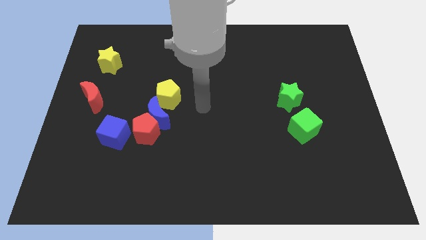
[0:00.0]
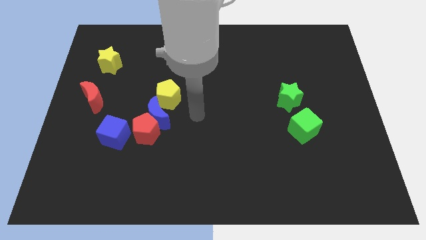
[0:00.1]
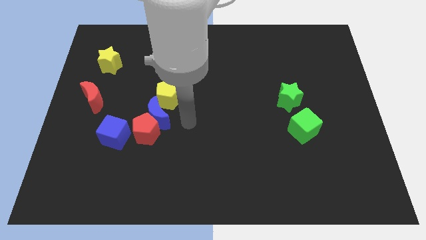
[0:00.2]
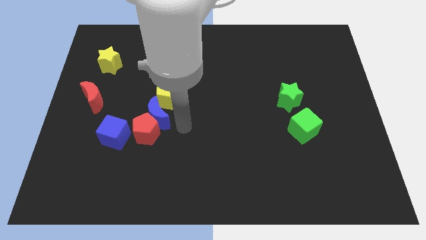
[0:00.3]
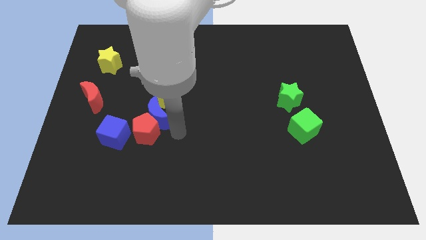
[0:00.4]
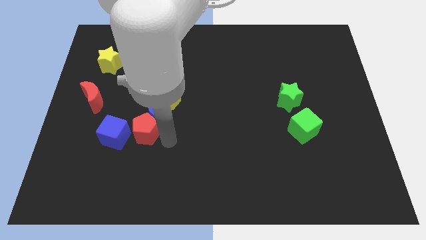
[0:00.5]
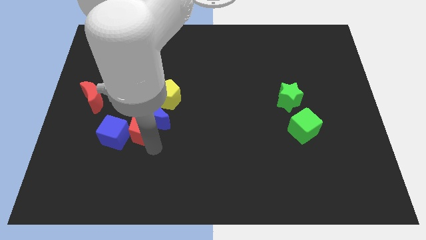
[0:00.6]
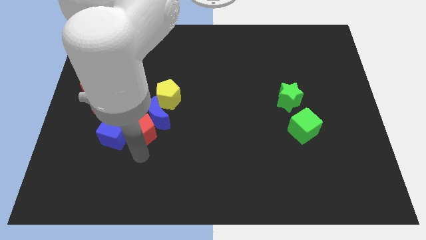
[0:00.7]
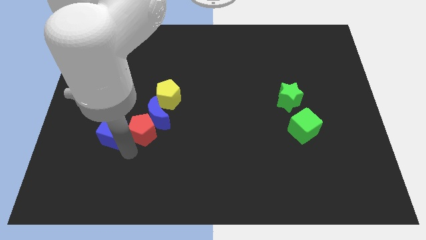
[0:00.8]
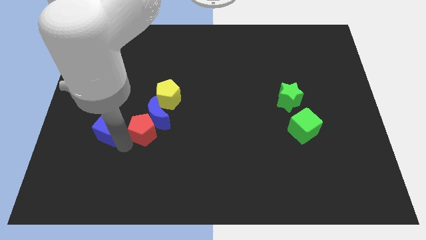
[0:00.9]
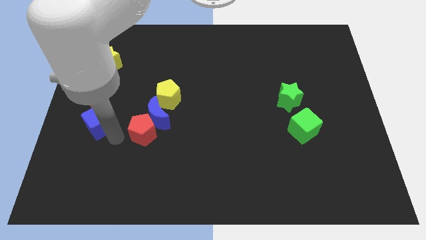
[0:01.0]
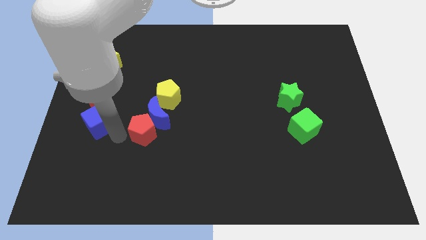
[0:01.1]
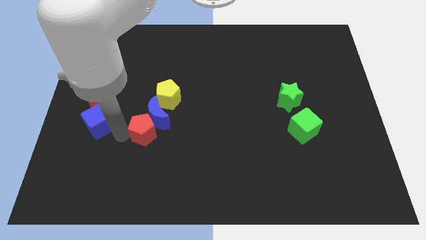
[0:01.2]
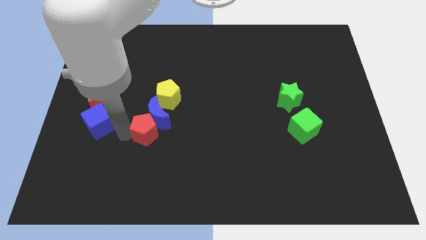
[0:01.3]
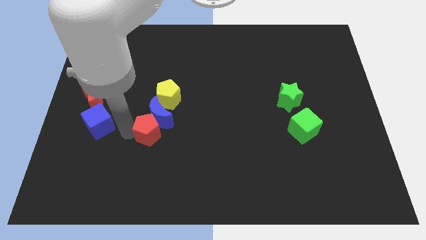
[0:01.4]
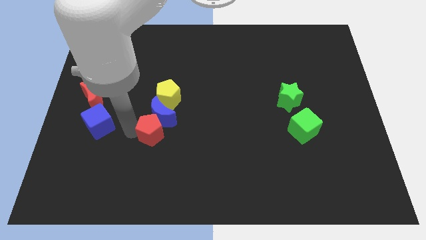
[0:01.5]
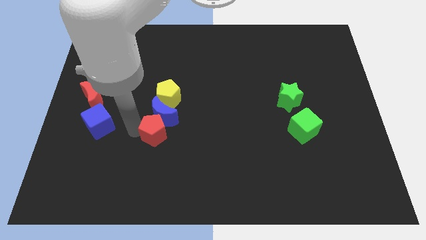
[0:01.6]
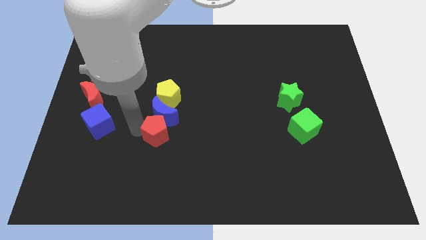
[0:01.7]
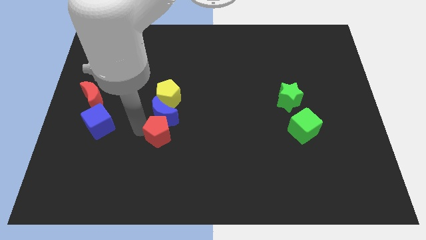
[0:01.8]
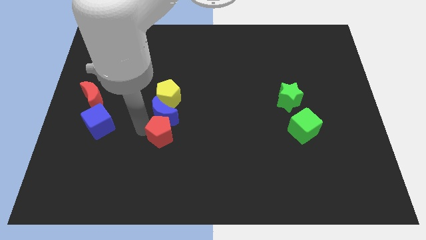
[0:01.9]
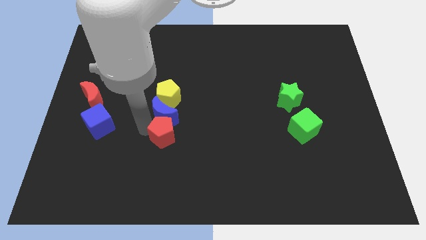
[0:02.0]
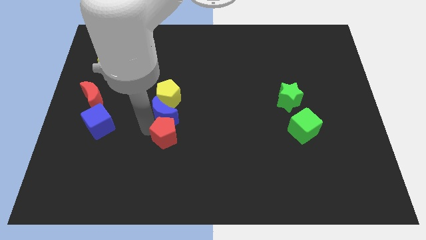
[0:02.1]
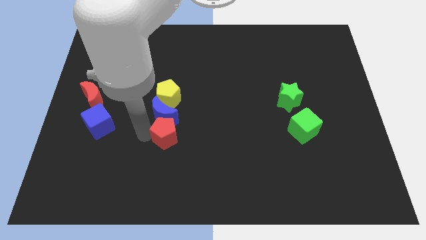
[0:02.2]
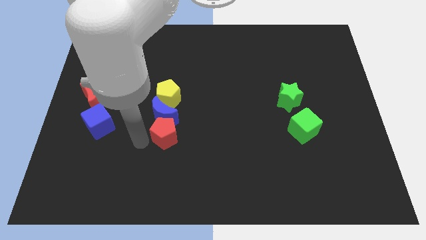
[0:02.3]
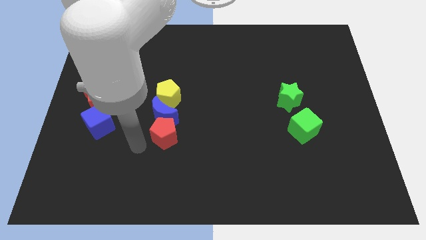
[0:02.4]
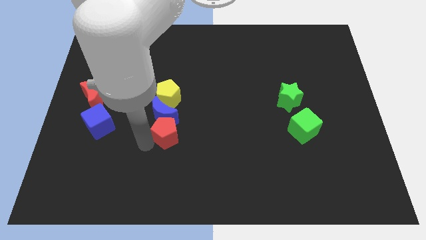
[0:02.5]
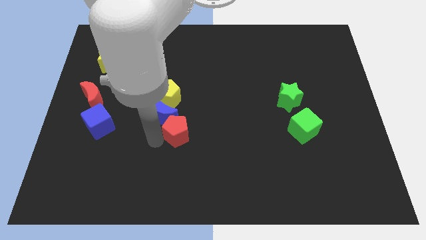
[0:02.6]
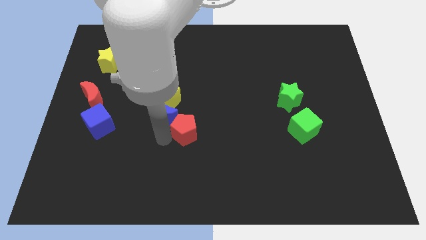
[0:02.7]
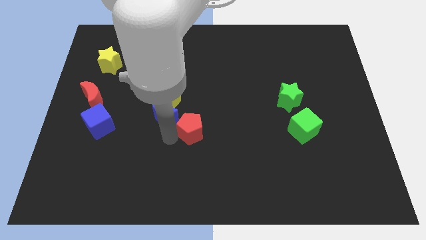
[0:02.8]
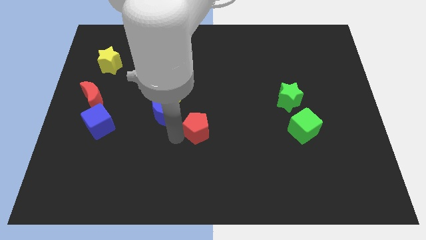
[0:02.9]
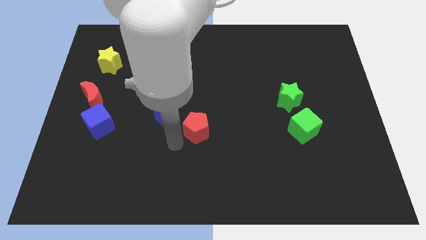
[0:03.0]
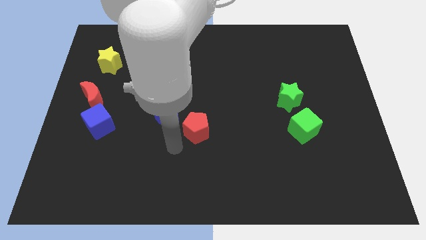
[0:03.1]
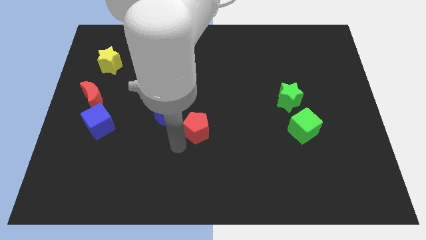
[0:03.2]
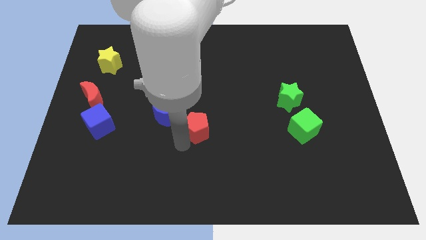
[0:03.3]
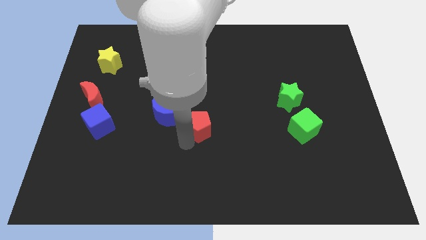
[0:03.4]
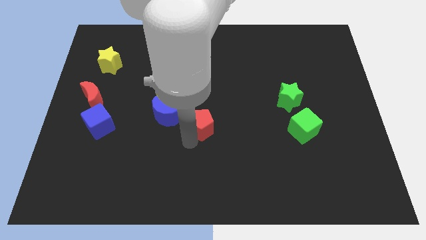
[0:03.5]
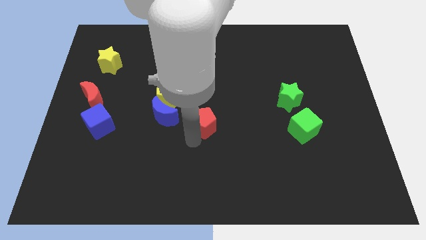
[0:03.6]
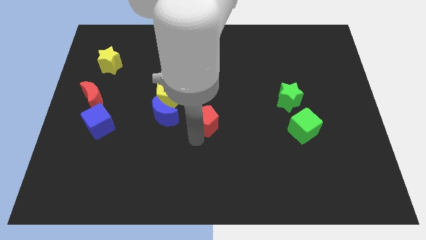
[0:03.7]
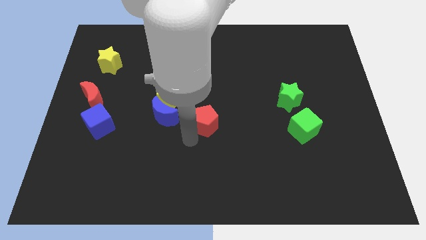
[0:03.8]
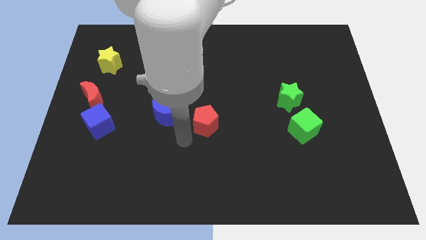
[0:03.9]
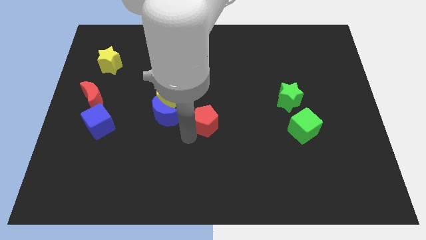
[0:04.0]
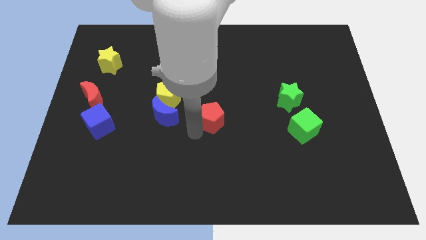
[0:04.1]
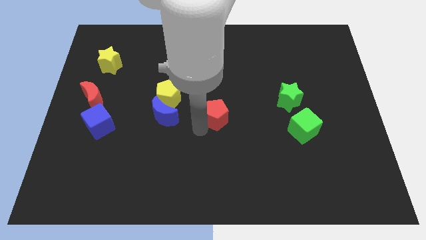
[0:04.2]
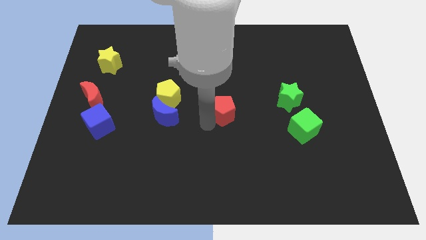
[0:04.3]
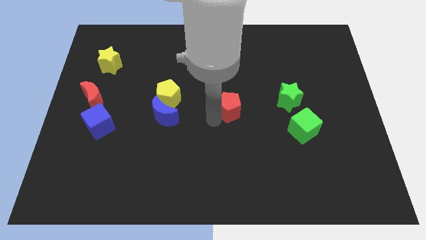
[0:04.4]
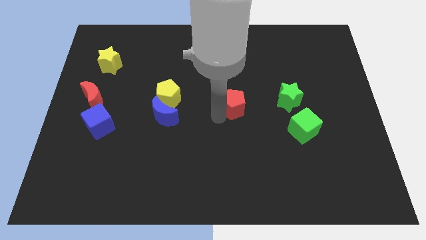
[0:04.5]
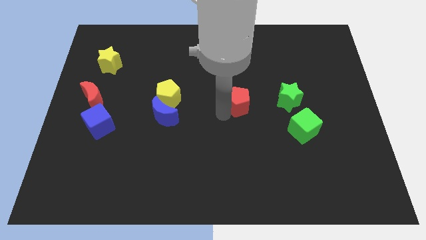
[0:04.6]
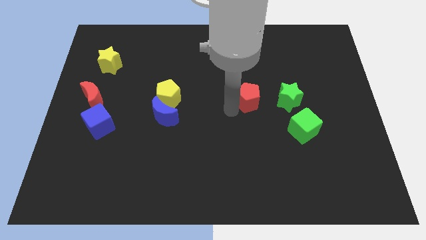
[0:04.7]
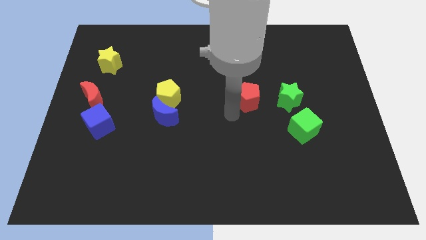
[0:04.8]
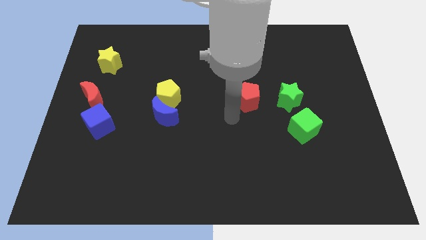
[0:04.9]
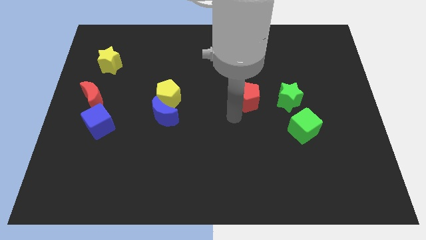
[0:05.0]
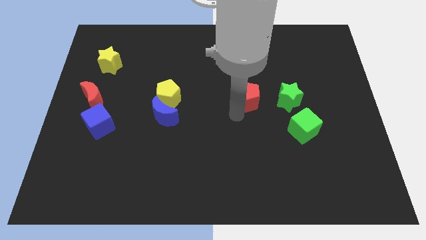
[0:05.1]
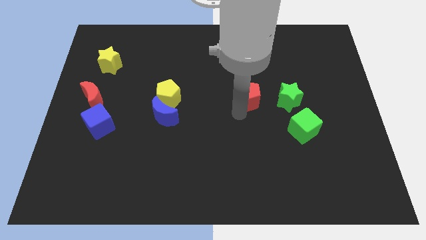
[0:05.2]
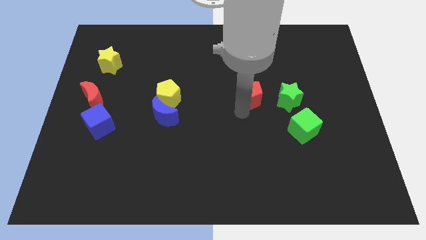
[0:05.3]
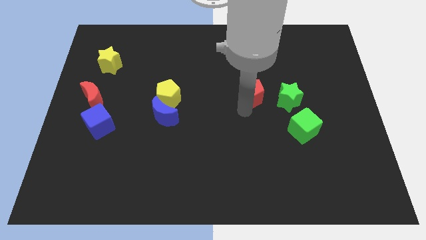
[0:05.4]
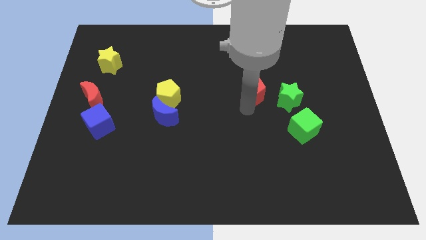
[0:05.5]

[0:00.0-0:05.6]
push the red pentagon to the top left of the green star

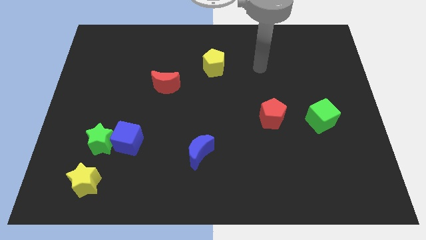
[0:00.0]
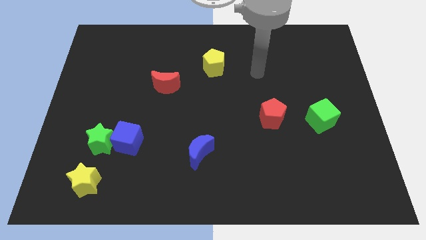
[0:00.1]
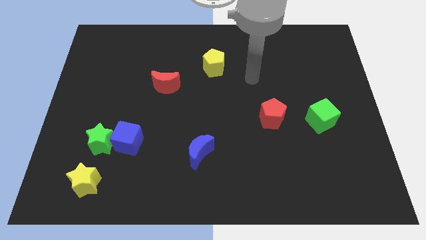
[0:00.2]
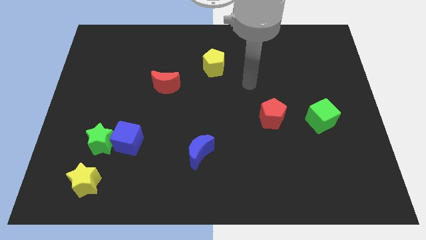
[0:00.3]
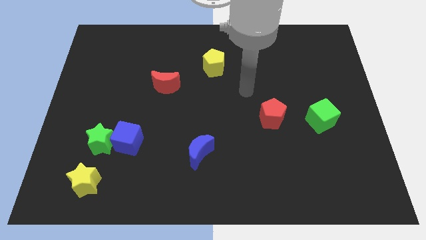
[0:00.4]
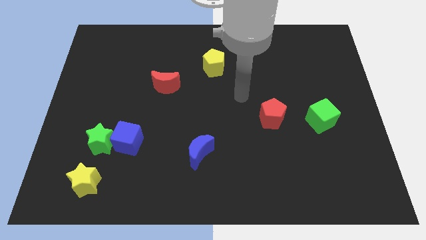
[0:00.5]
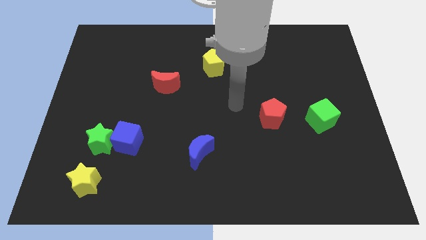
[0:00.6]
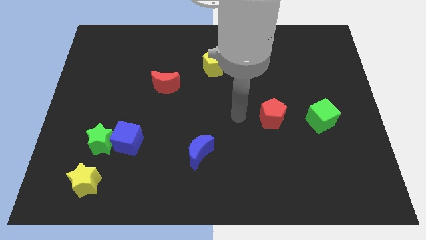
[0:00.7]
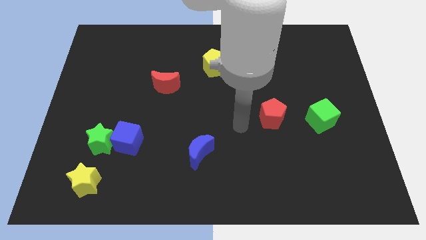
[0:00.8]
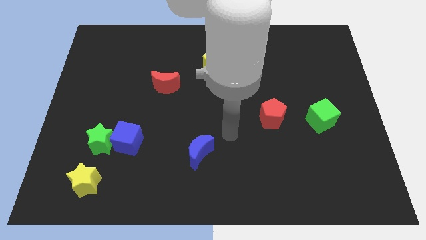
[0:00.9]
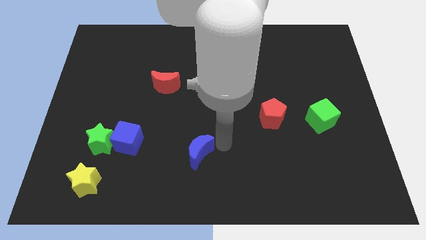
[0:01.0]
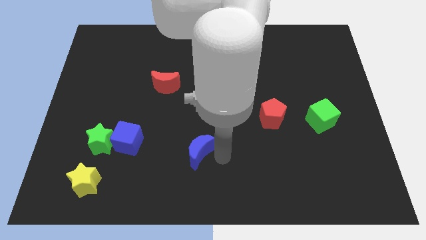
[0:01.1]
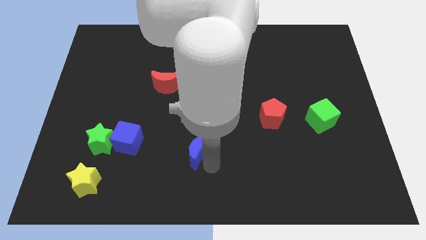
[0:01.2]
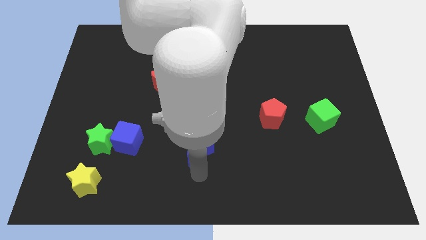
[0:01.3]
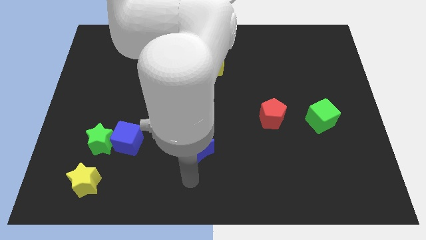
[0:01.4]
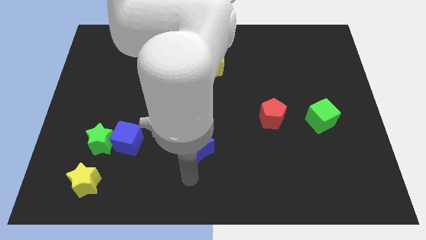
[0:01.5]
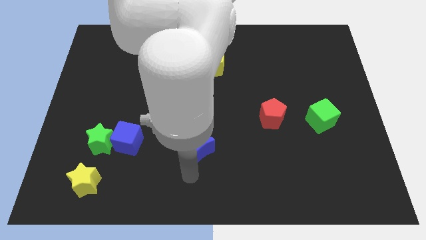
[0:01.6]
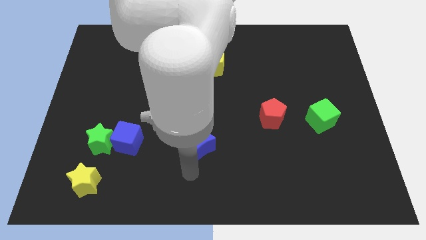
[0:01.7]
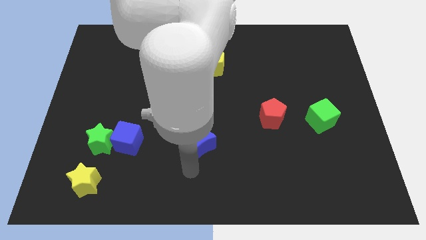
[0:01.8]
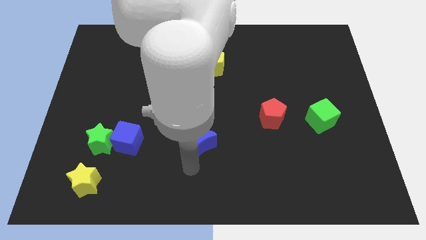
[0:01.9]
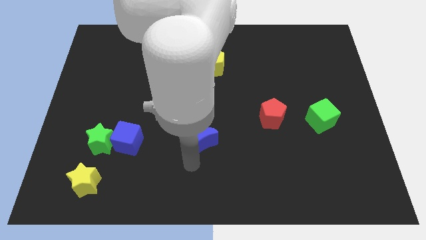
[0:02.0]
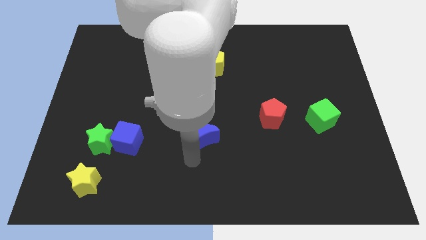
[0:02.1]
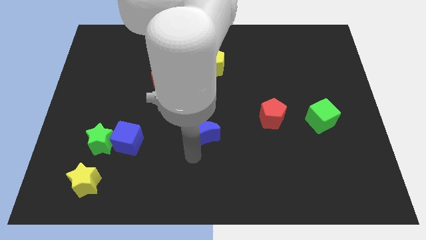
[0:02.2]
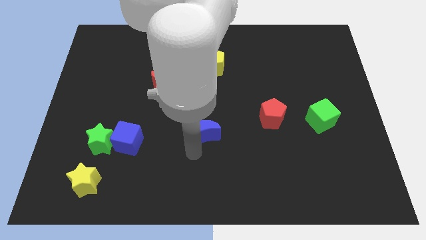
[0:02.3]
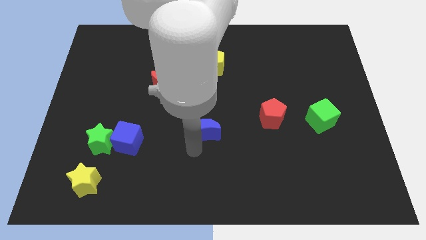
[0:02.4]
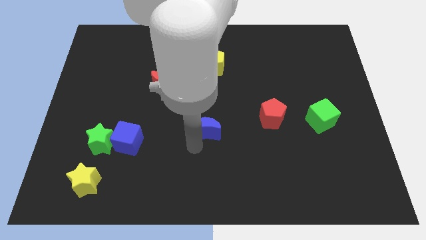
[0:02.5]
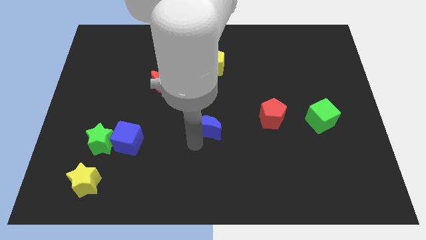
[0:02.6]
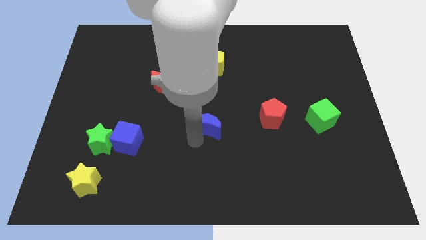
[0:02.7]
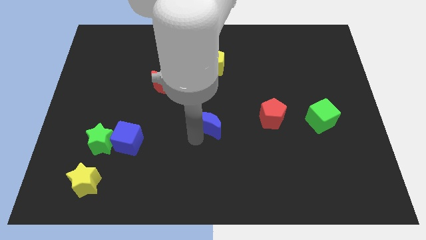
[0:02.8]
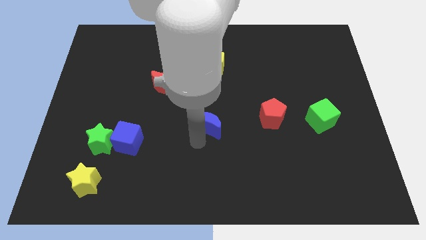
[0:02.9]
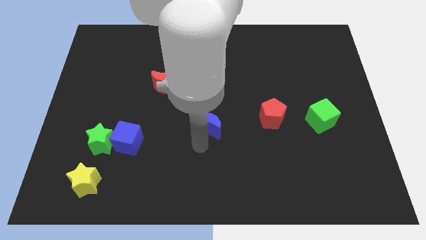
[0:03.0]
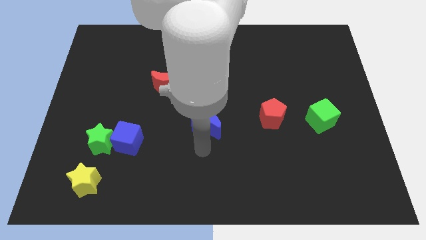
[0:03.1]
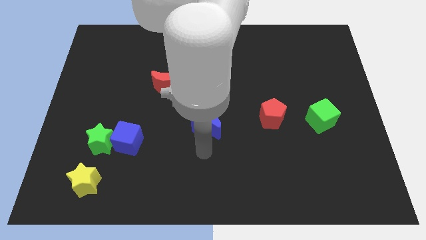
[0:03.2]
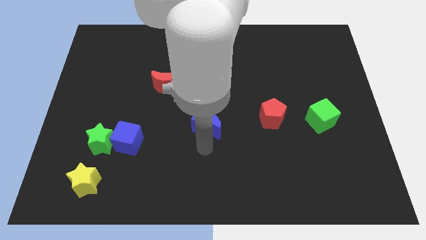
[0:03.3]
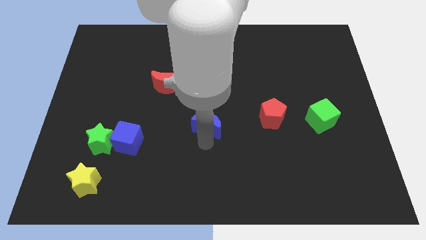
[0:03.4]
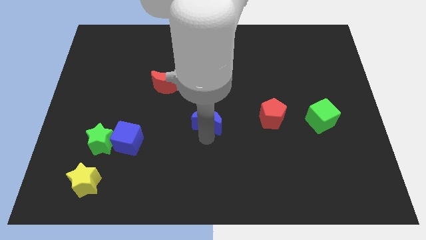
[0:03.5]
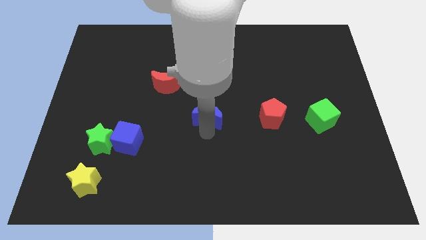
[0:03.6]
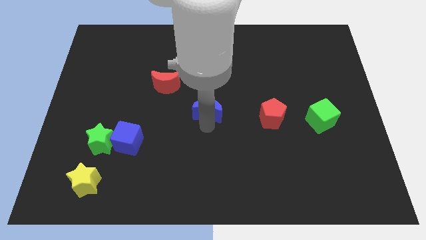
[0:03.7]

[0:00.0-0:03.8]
slide the blue moon below the yellow pentagon
